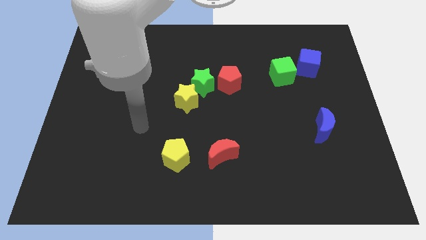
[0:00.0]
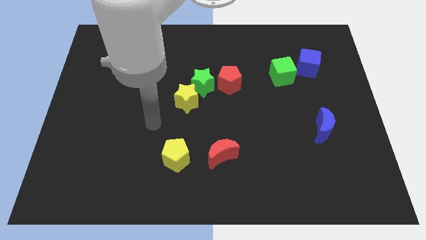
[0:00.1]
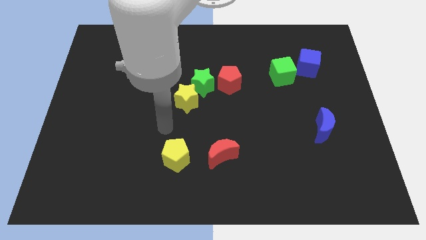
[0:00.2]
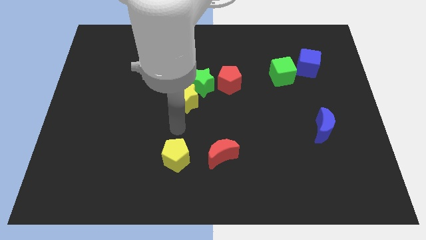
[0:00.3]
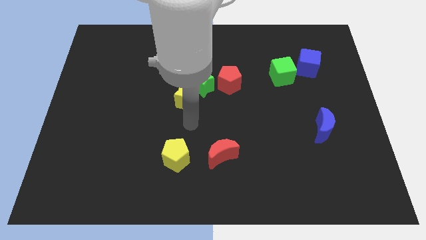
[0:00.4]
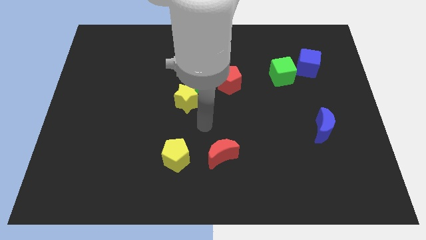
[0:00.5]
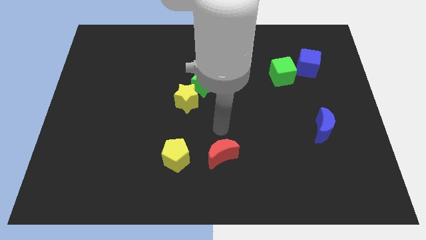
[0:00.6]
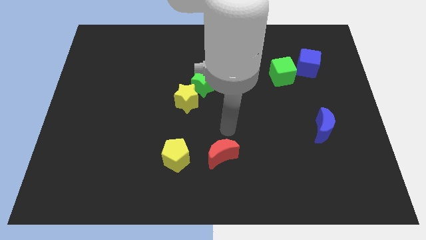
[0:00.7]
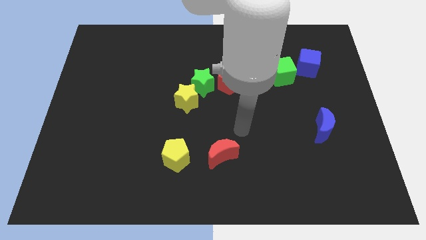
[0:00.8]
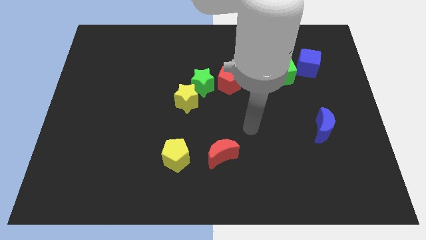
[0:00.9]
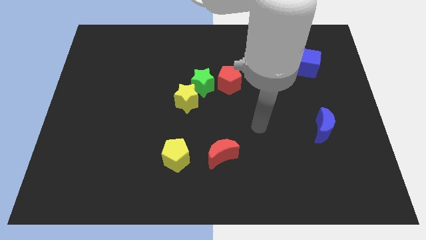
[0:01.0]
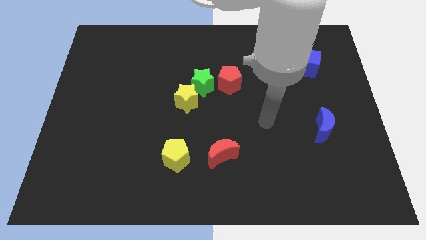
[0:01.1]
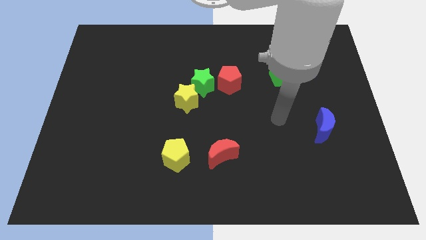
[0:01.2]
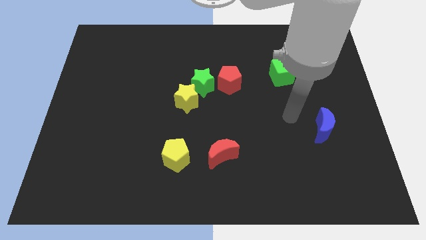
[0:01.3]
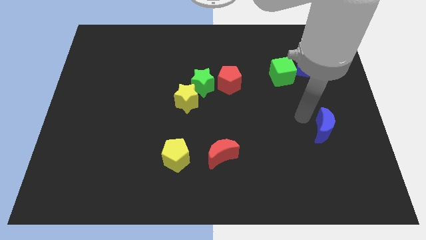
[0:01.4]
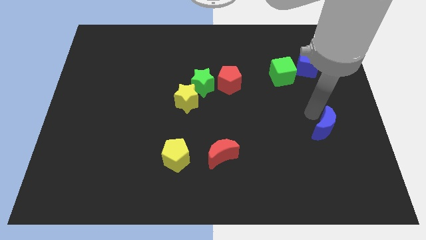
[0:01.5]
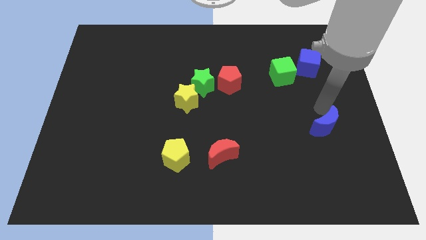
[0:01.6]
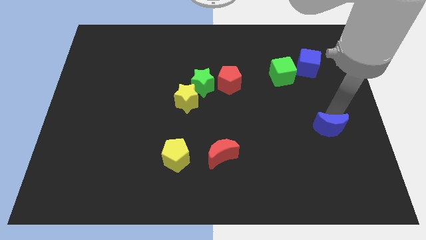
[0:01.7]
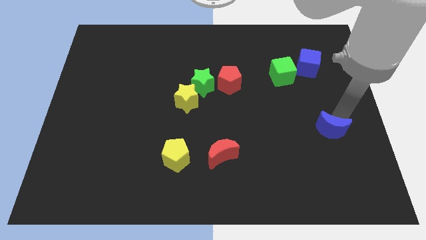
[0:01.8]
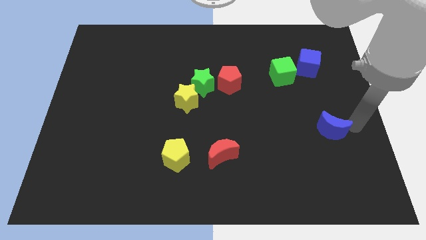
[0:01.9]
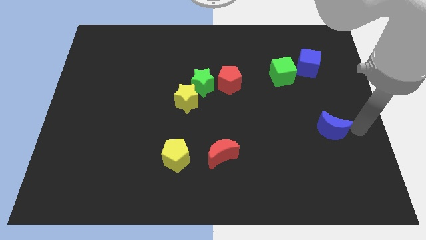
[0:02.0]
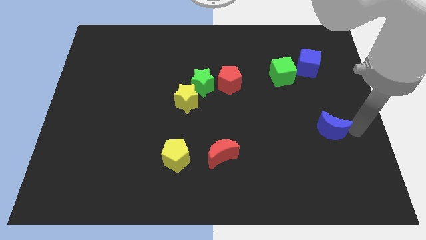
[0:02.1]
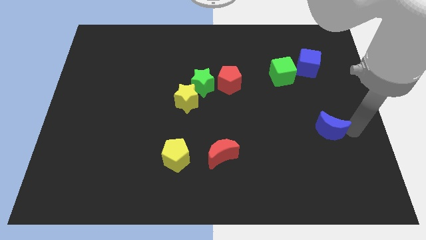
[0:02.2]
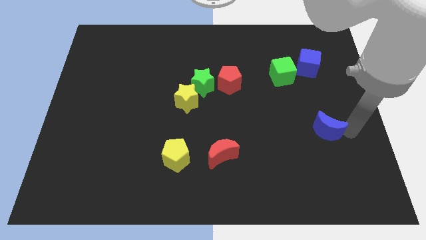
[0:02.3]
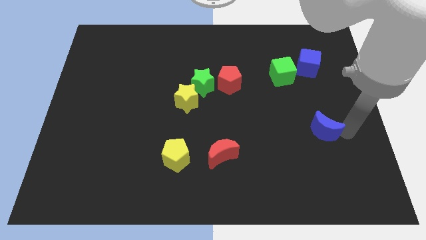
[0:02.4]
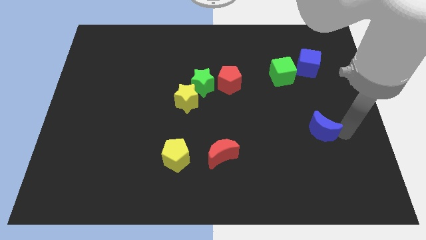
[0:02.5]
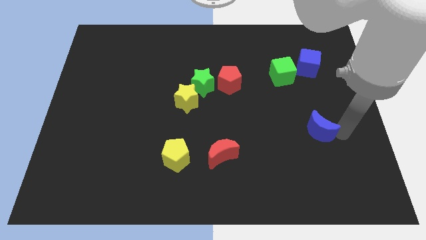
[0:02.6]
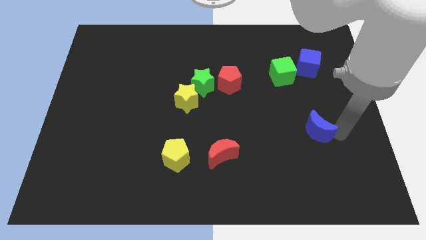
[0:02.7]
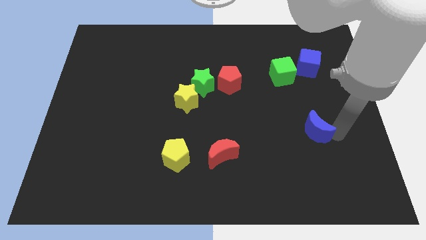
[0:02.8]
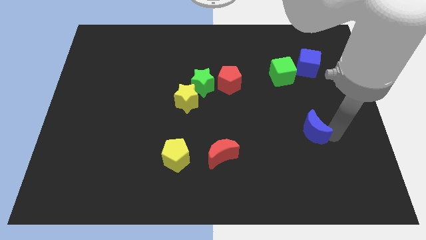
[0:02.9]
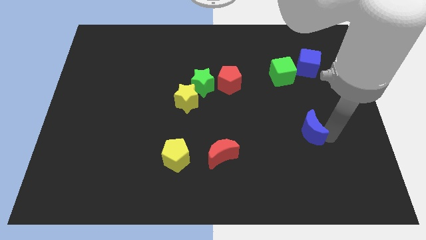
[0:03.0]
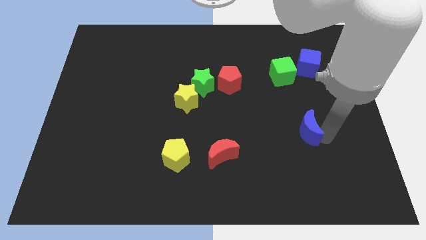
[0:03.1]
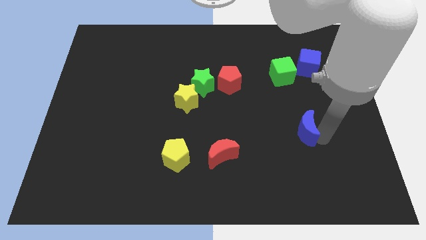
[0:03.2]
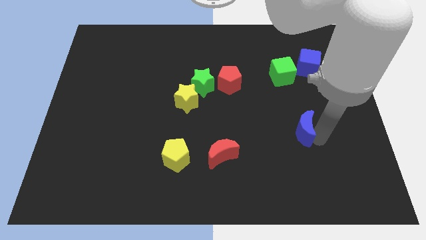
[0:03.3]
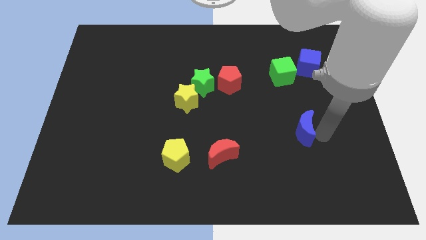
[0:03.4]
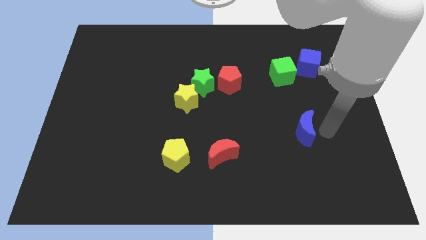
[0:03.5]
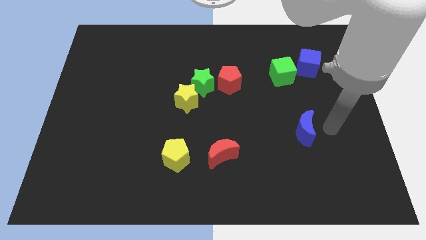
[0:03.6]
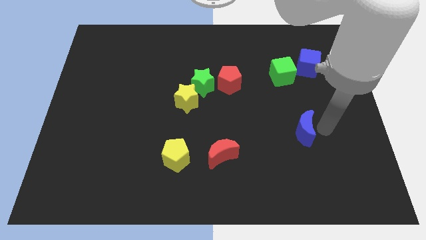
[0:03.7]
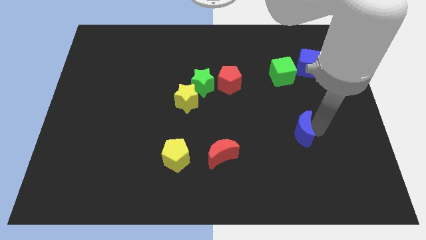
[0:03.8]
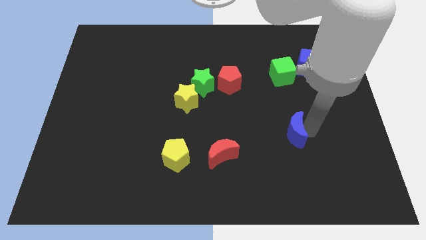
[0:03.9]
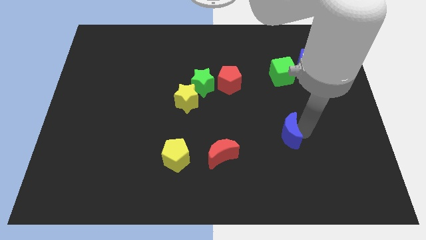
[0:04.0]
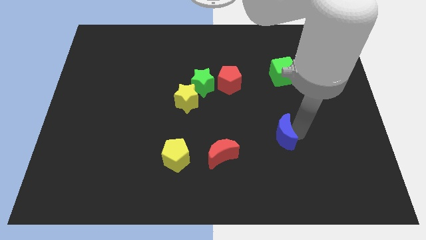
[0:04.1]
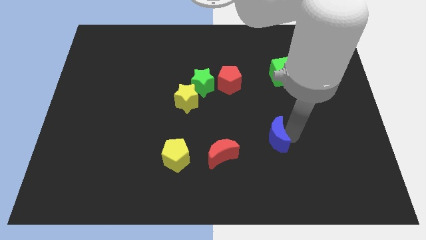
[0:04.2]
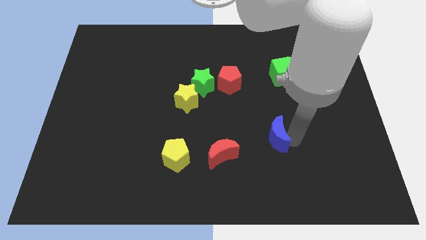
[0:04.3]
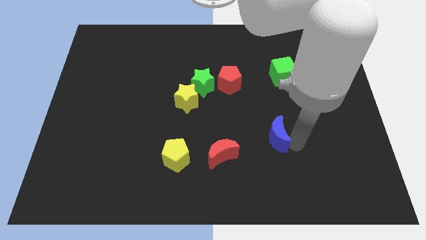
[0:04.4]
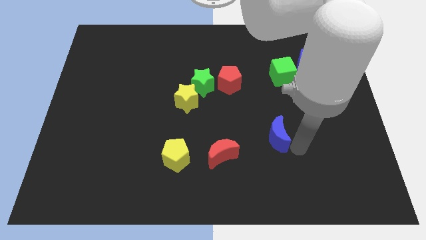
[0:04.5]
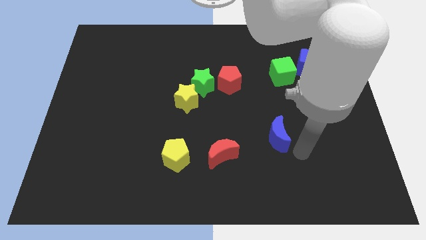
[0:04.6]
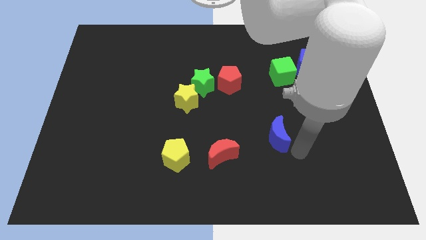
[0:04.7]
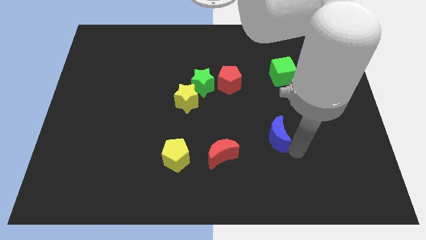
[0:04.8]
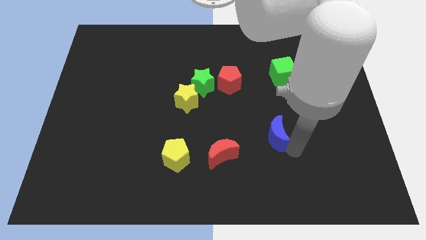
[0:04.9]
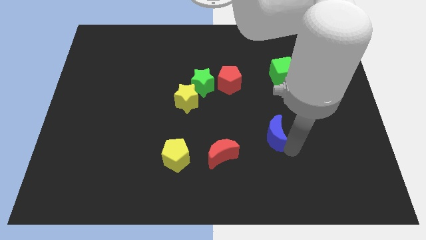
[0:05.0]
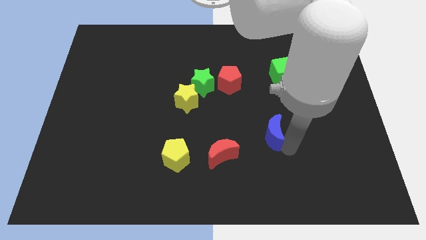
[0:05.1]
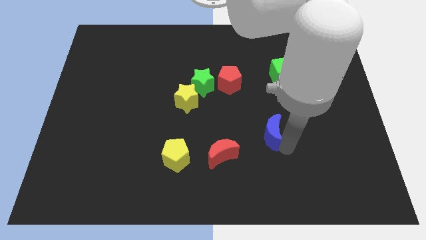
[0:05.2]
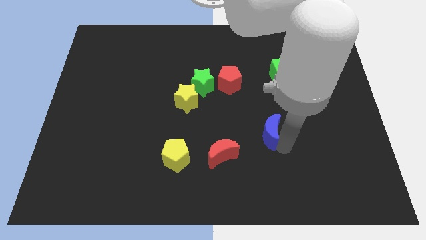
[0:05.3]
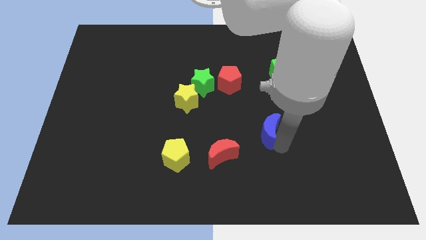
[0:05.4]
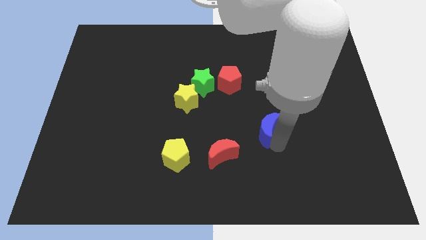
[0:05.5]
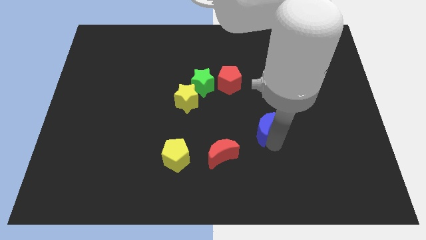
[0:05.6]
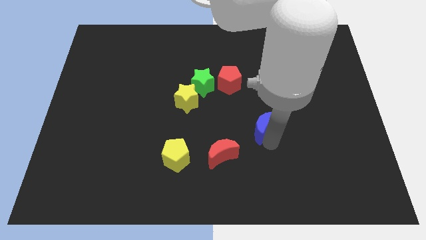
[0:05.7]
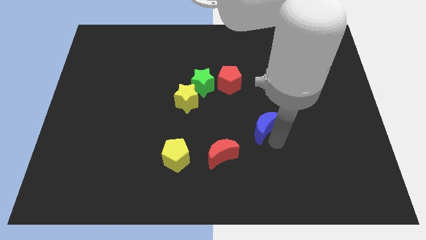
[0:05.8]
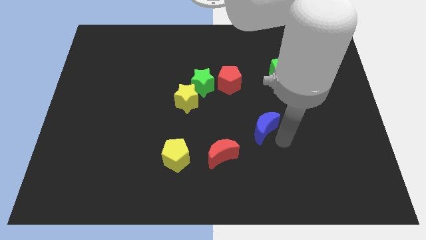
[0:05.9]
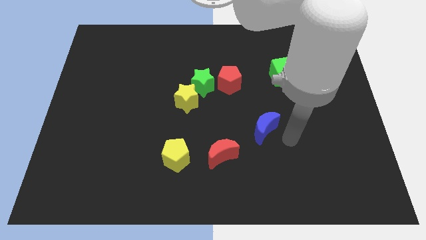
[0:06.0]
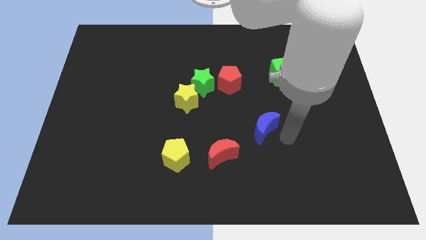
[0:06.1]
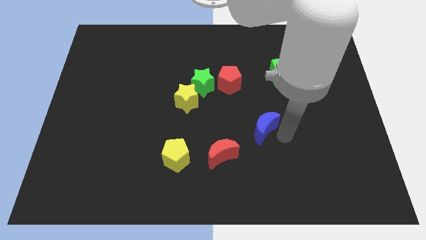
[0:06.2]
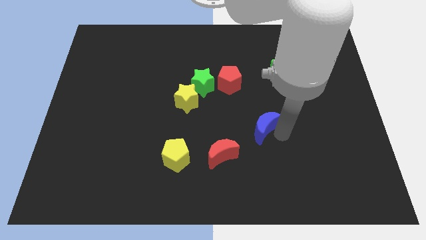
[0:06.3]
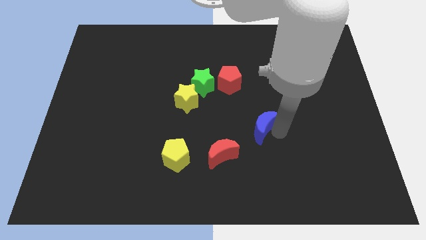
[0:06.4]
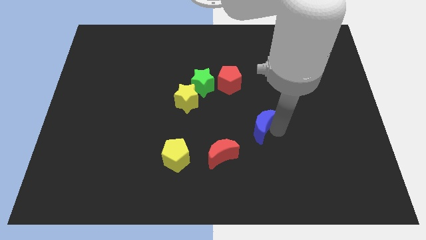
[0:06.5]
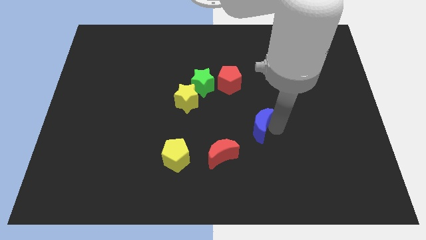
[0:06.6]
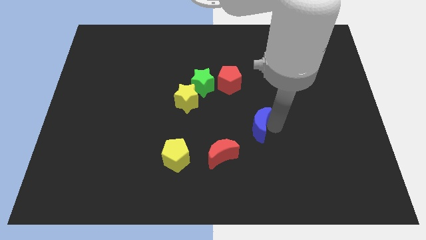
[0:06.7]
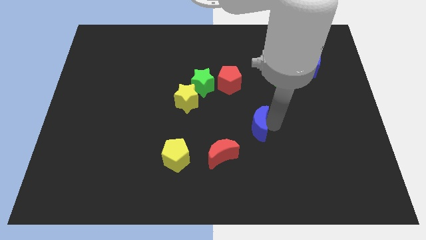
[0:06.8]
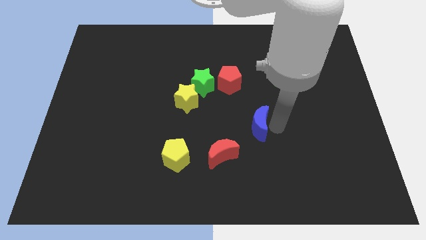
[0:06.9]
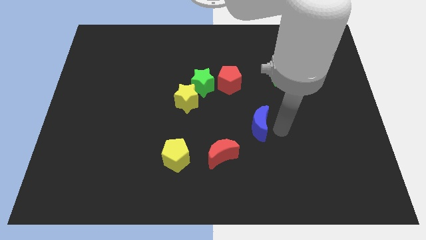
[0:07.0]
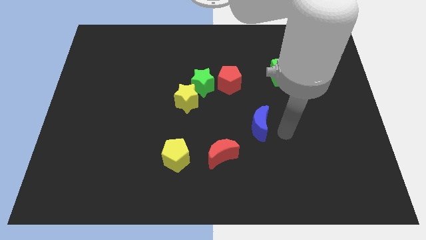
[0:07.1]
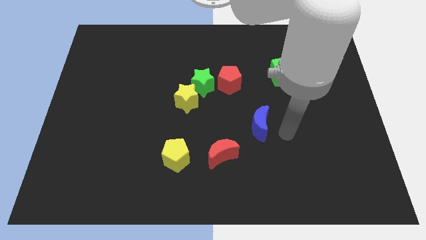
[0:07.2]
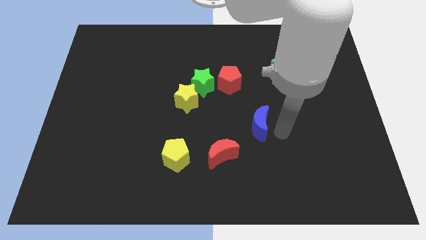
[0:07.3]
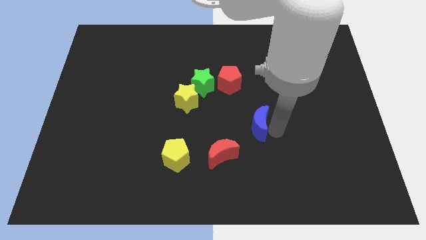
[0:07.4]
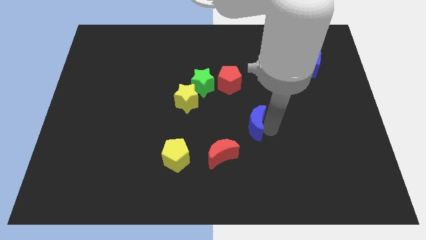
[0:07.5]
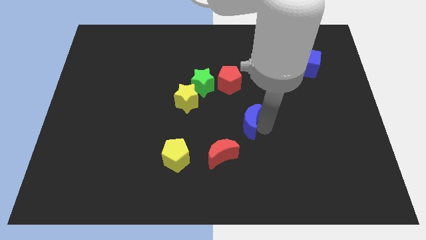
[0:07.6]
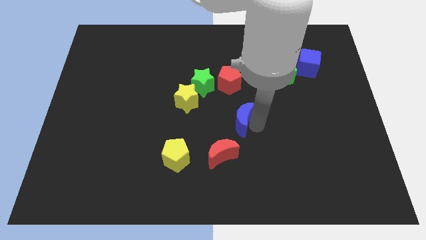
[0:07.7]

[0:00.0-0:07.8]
slide the blue moon to the top of the red moon
